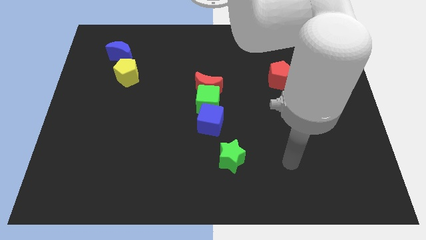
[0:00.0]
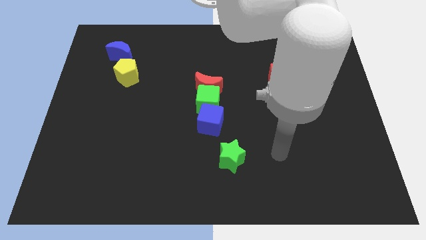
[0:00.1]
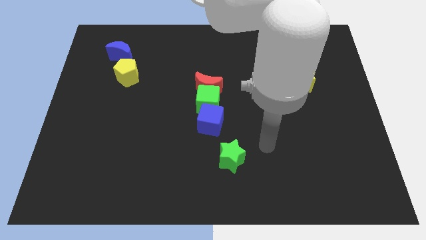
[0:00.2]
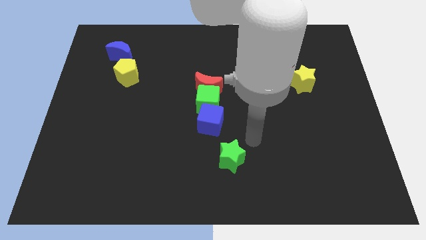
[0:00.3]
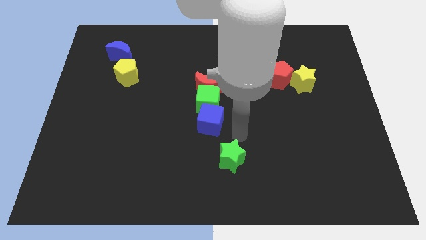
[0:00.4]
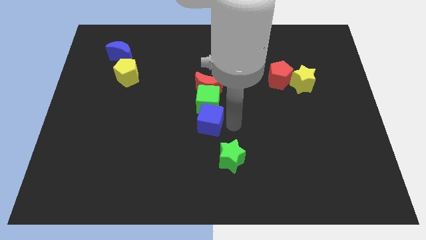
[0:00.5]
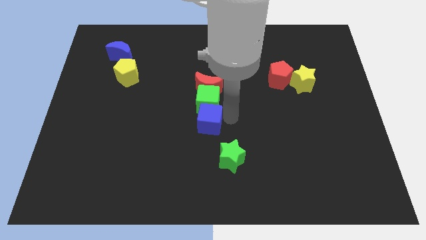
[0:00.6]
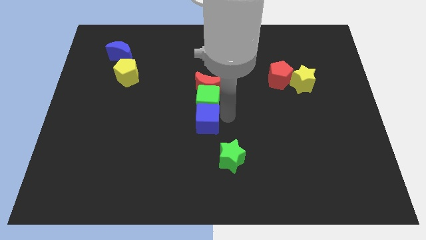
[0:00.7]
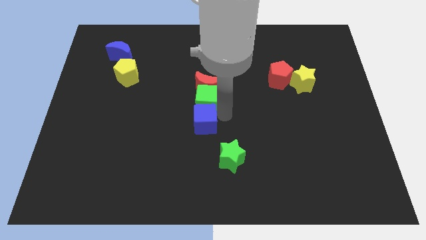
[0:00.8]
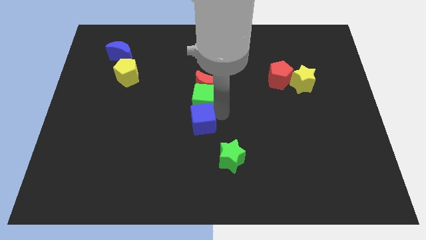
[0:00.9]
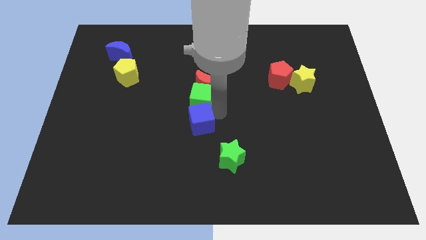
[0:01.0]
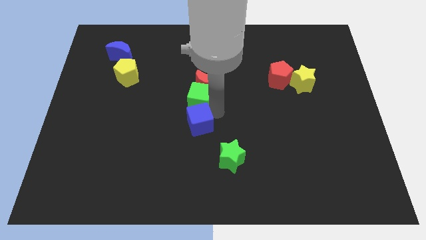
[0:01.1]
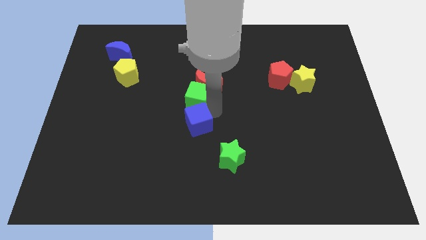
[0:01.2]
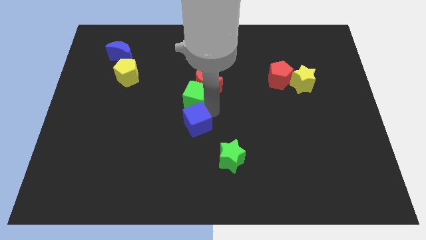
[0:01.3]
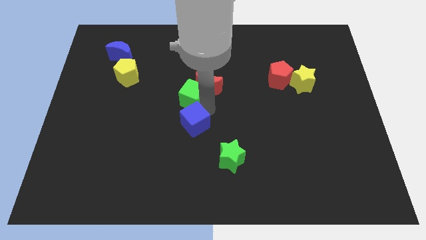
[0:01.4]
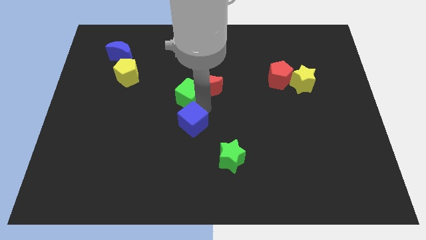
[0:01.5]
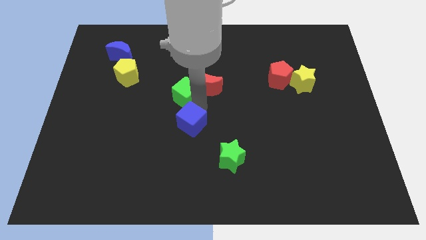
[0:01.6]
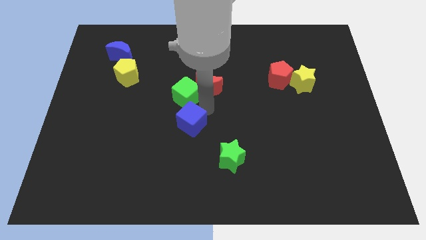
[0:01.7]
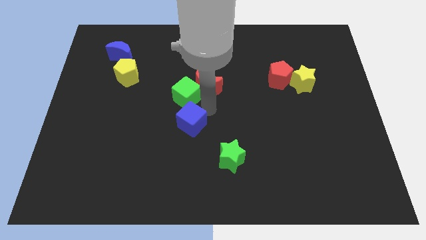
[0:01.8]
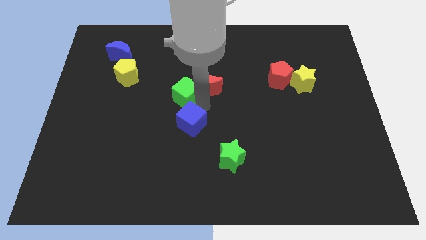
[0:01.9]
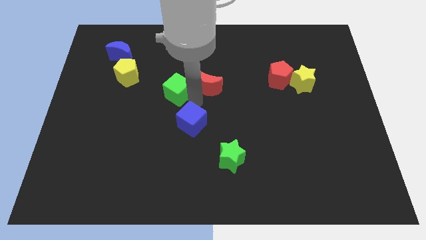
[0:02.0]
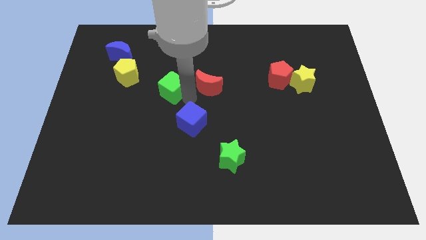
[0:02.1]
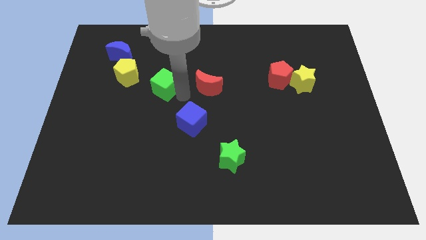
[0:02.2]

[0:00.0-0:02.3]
separate the green cube from the red moon and blue cube

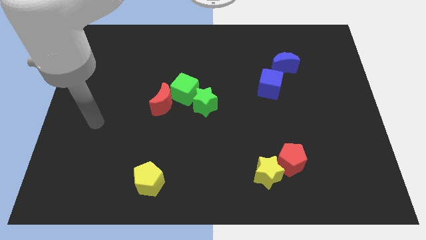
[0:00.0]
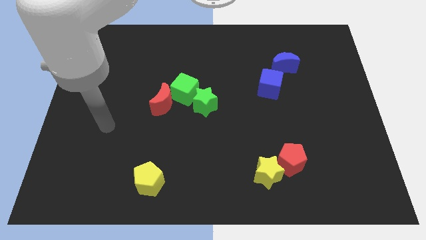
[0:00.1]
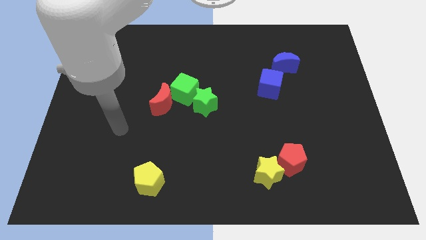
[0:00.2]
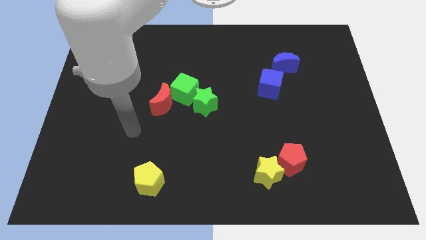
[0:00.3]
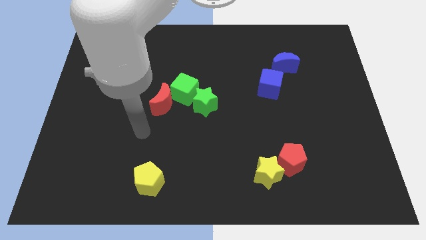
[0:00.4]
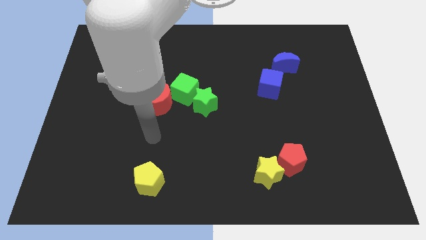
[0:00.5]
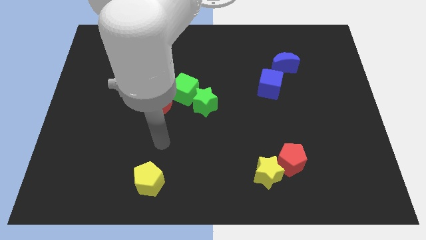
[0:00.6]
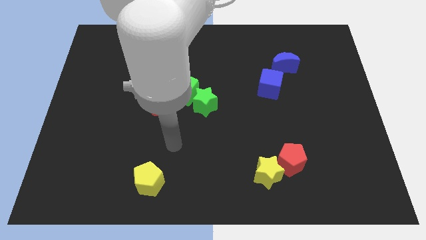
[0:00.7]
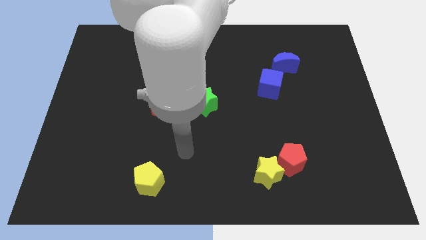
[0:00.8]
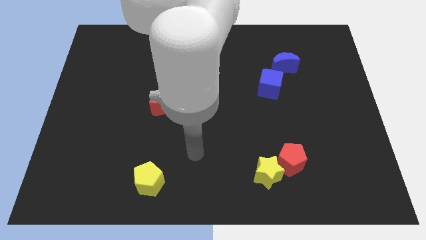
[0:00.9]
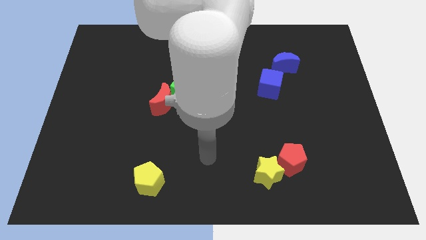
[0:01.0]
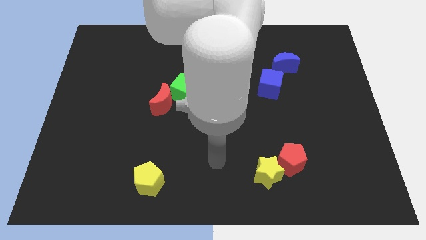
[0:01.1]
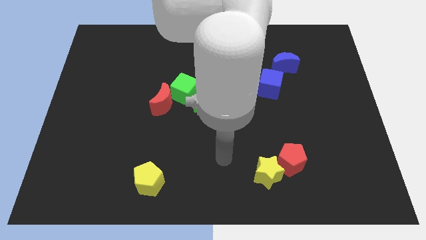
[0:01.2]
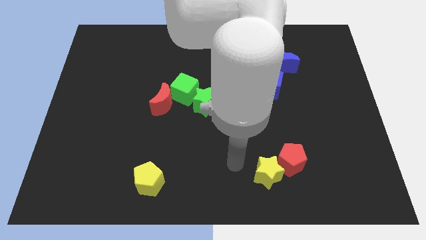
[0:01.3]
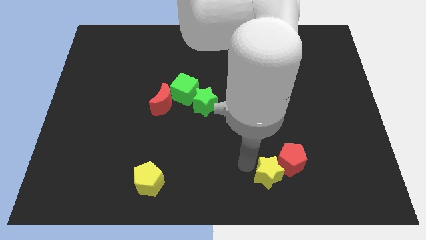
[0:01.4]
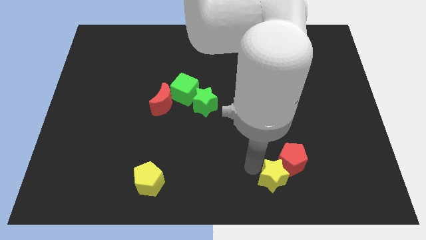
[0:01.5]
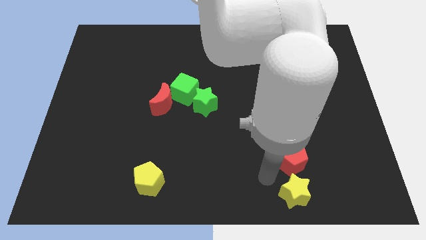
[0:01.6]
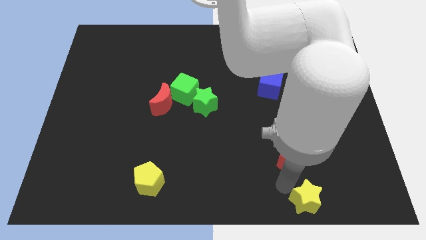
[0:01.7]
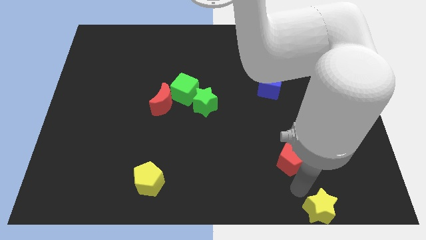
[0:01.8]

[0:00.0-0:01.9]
move the red pentagon away from the yellow star

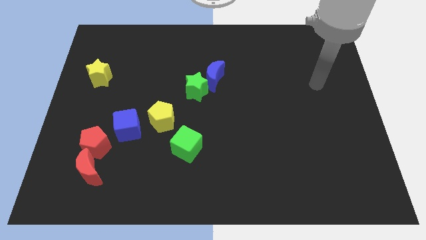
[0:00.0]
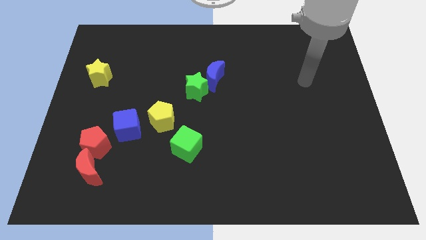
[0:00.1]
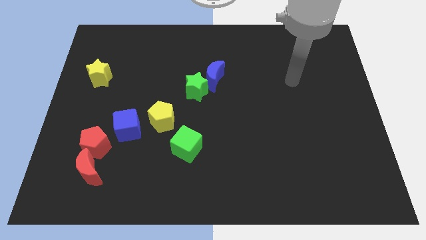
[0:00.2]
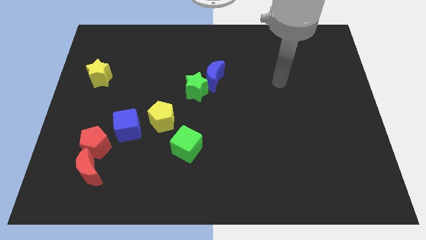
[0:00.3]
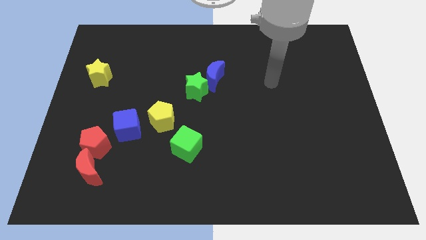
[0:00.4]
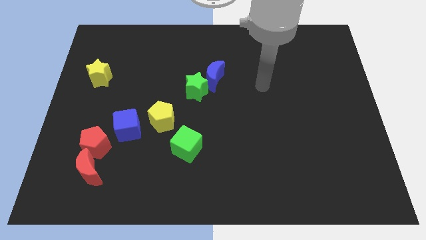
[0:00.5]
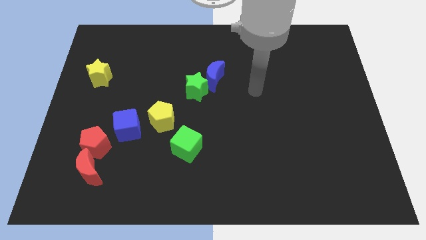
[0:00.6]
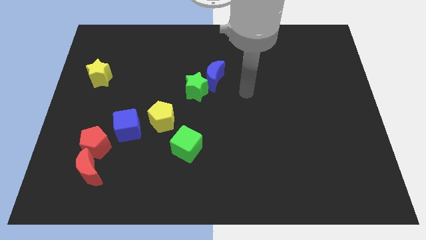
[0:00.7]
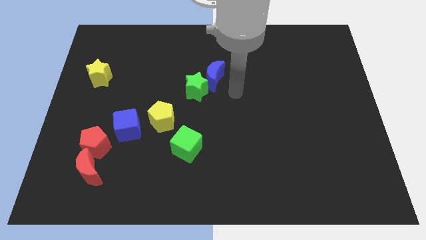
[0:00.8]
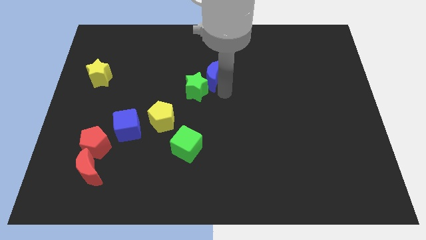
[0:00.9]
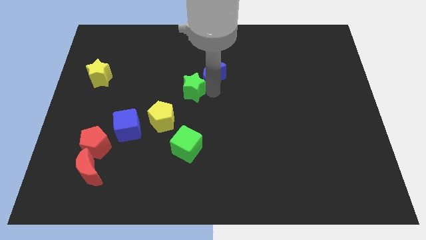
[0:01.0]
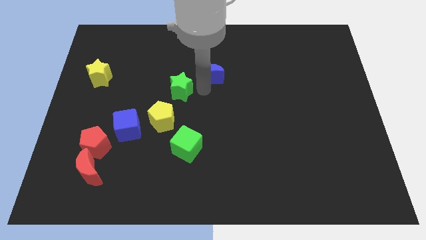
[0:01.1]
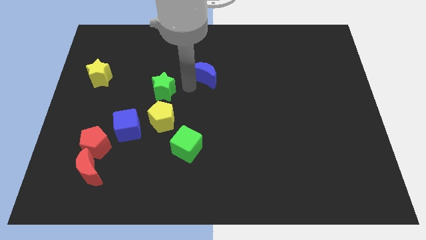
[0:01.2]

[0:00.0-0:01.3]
pull the blue moon apart from the green star

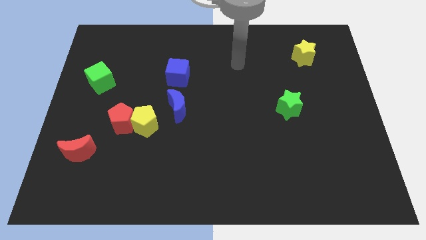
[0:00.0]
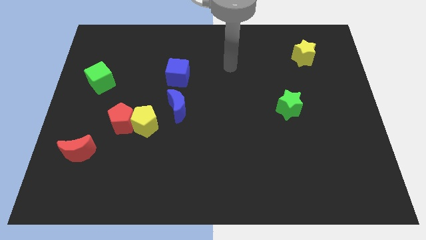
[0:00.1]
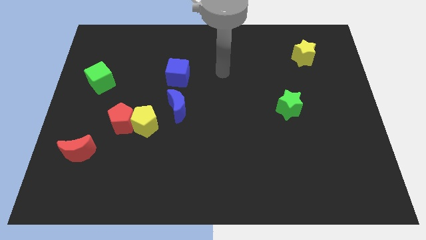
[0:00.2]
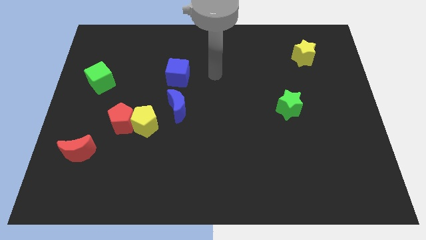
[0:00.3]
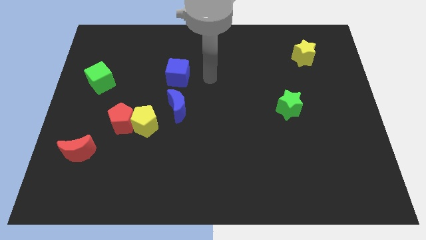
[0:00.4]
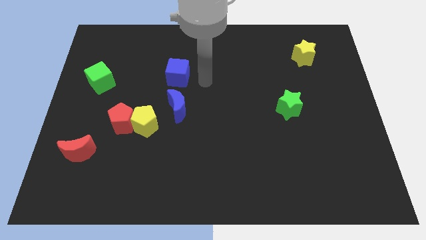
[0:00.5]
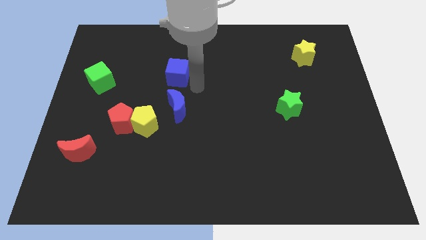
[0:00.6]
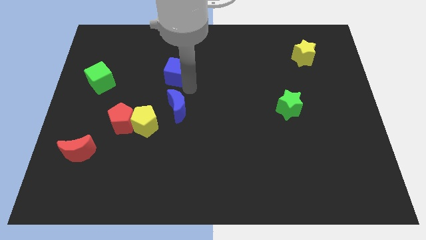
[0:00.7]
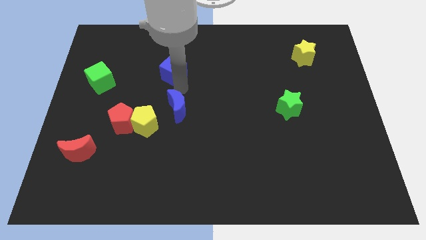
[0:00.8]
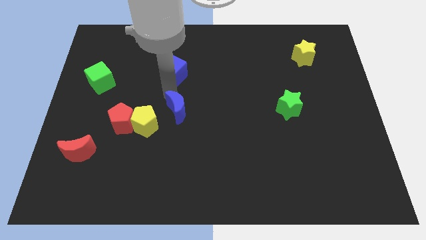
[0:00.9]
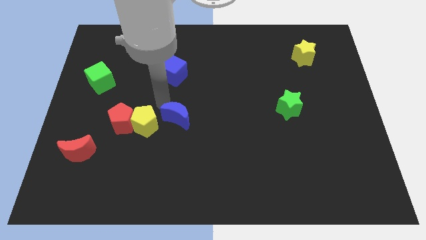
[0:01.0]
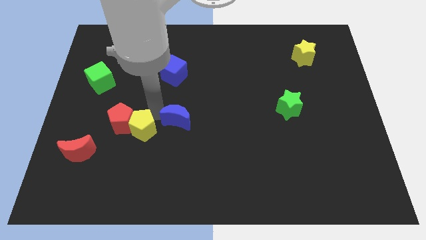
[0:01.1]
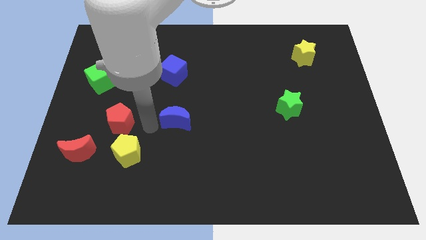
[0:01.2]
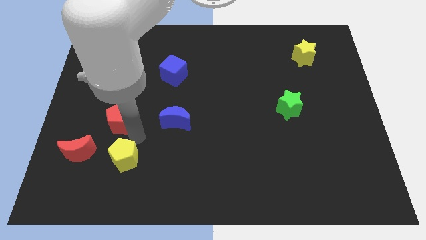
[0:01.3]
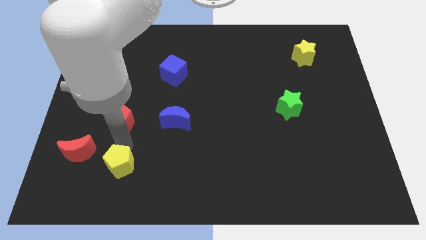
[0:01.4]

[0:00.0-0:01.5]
move the red pentagon away from the yellow pentagon

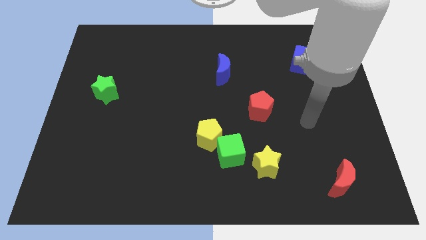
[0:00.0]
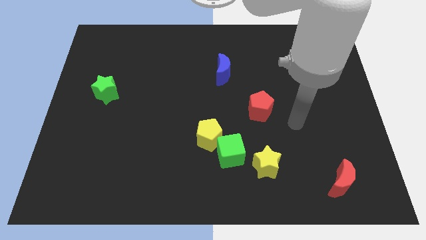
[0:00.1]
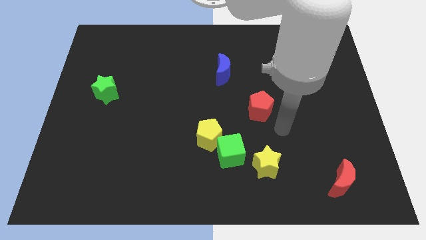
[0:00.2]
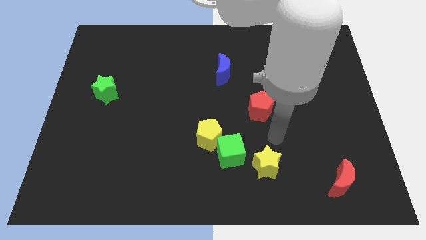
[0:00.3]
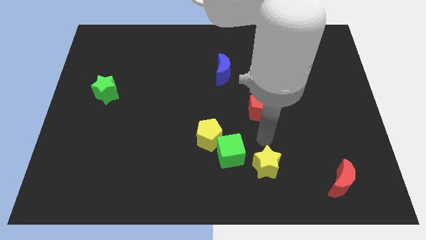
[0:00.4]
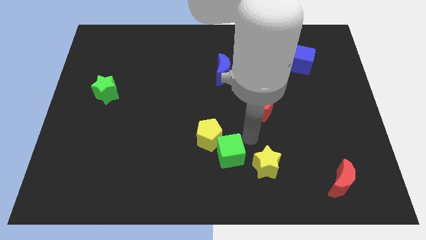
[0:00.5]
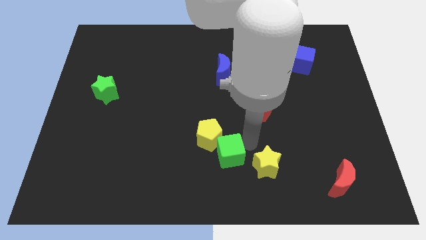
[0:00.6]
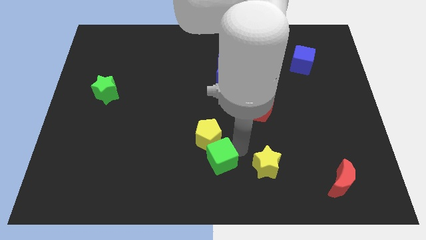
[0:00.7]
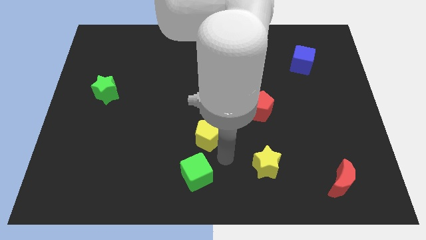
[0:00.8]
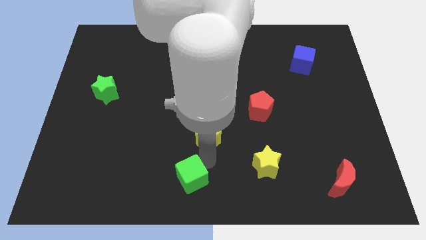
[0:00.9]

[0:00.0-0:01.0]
move the yellow pentagon away from the green cube

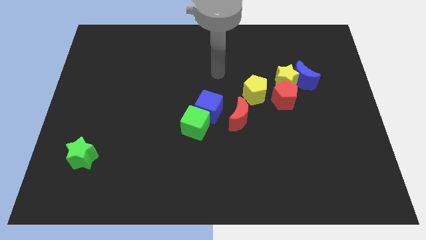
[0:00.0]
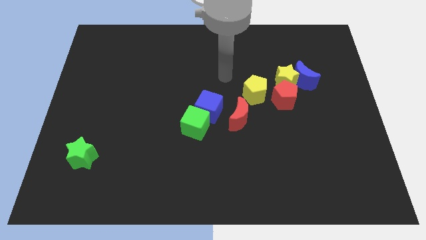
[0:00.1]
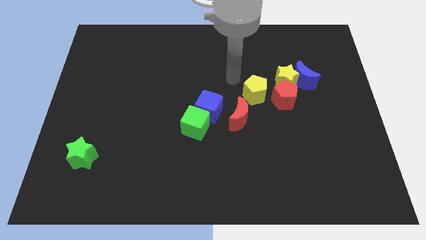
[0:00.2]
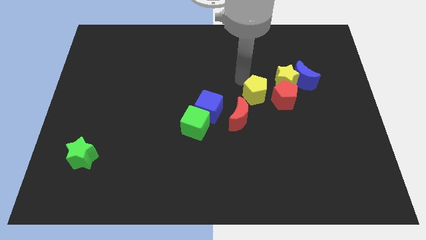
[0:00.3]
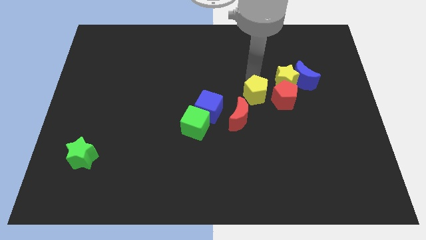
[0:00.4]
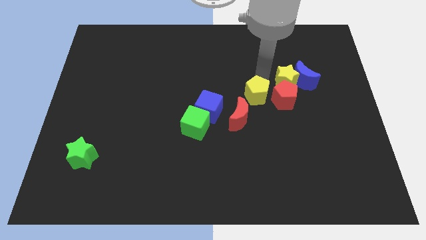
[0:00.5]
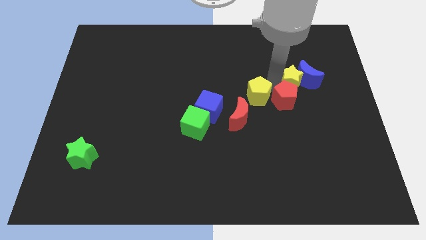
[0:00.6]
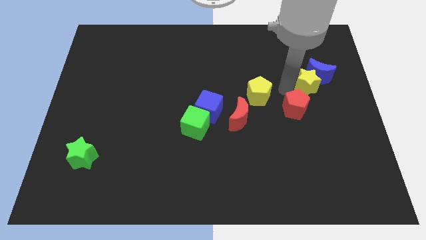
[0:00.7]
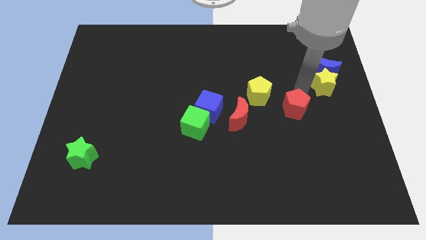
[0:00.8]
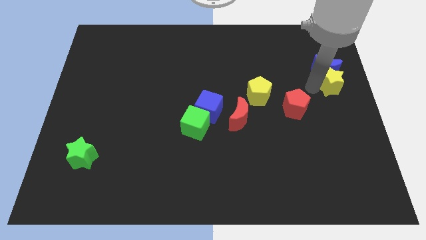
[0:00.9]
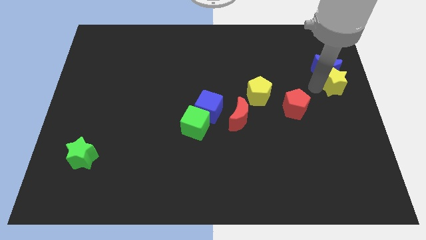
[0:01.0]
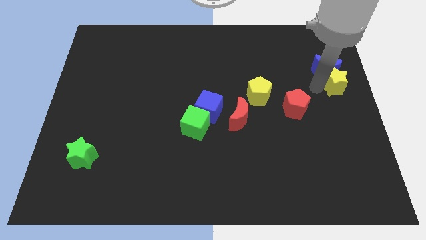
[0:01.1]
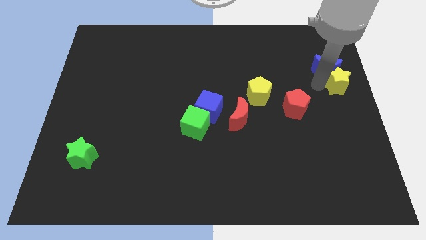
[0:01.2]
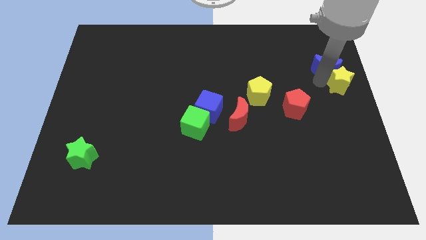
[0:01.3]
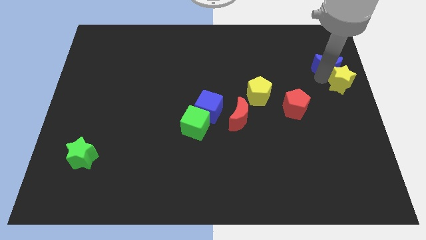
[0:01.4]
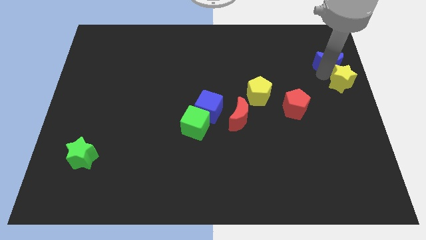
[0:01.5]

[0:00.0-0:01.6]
pull the blue moon apart from the yellow star and red pentagon
